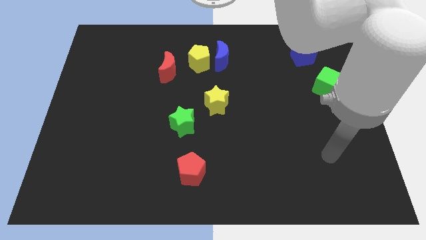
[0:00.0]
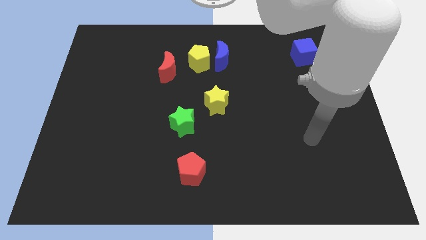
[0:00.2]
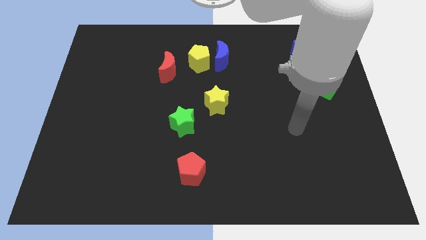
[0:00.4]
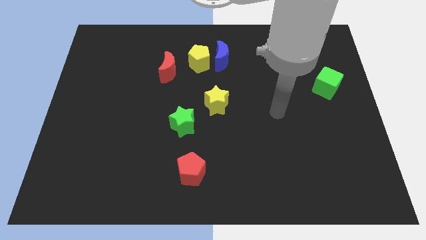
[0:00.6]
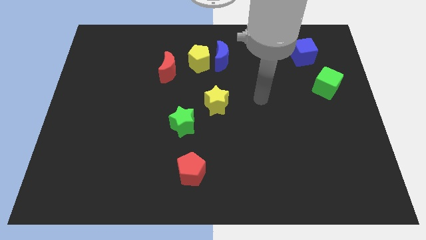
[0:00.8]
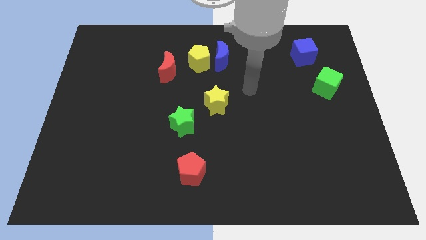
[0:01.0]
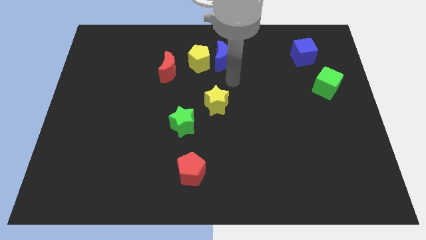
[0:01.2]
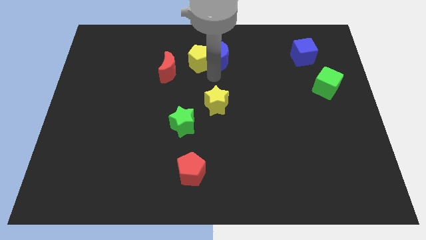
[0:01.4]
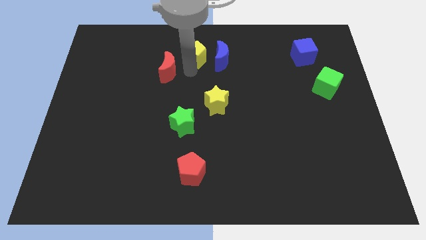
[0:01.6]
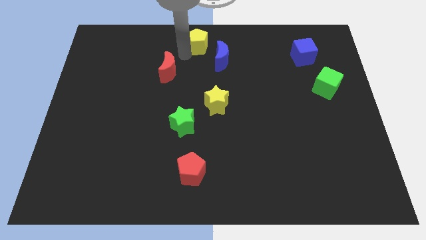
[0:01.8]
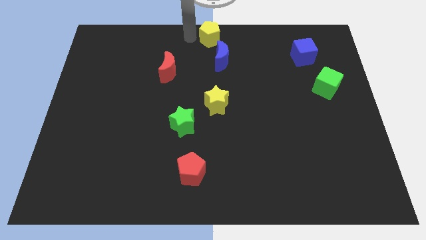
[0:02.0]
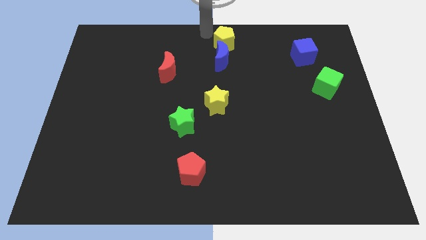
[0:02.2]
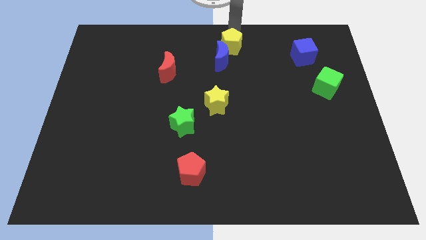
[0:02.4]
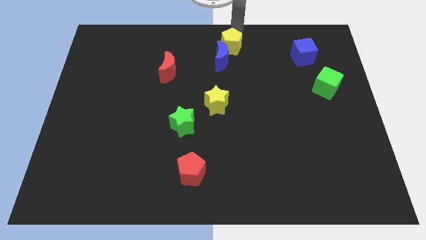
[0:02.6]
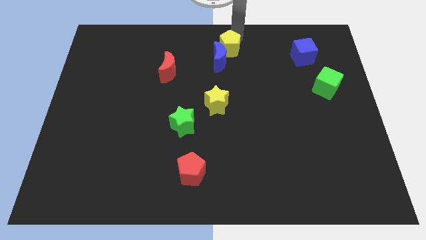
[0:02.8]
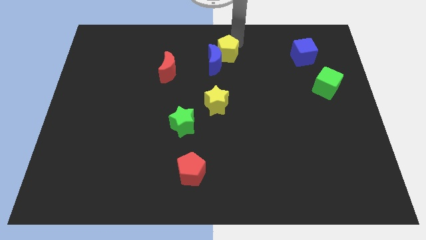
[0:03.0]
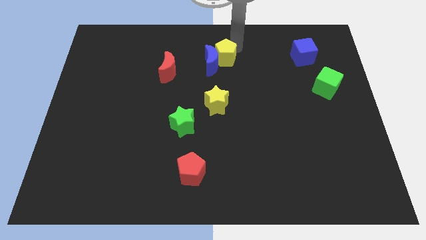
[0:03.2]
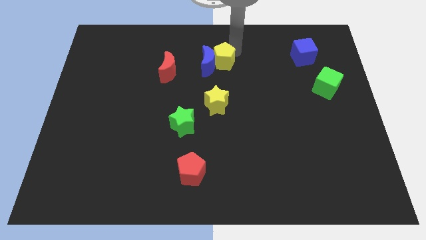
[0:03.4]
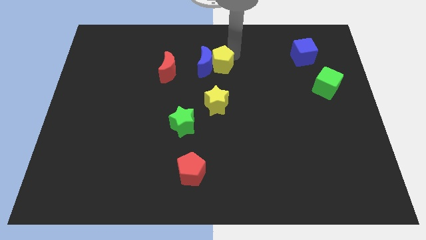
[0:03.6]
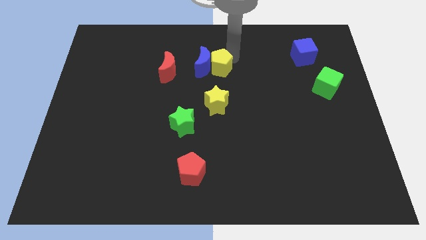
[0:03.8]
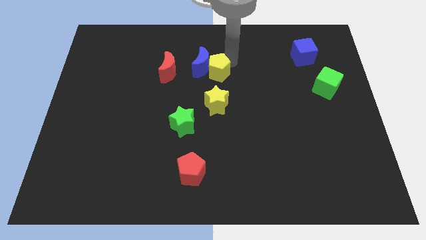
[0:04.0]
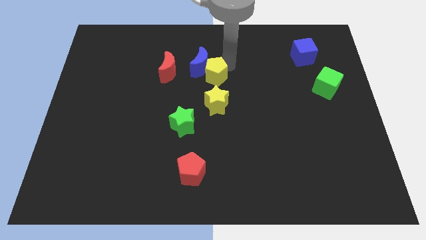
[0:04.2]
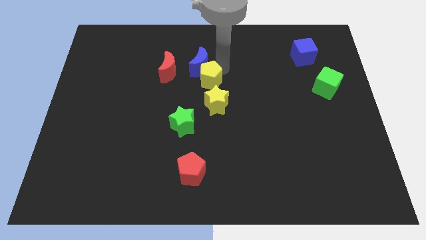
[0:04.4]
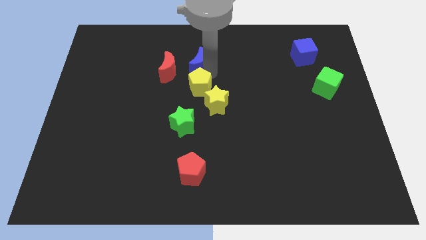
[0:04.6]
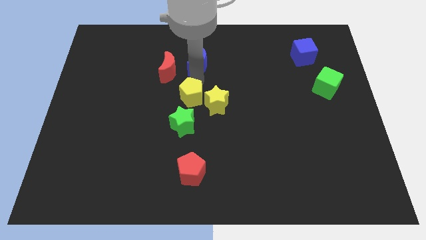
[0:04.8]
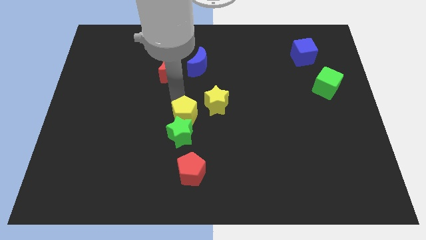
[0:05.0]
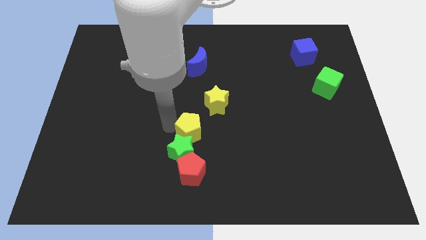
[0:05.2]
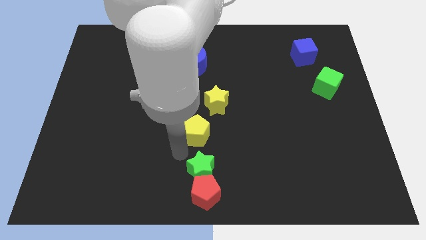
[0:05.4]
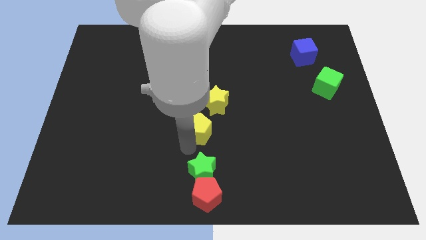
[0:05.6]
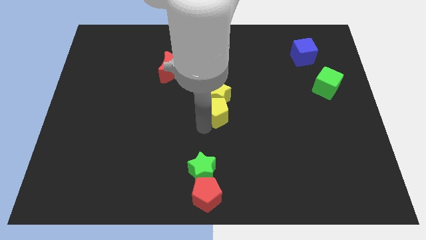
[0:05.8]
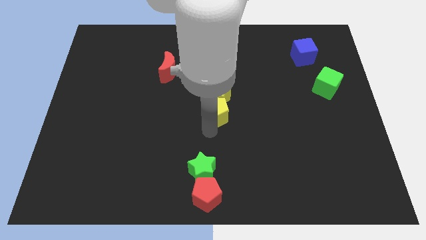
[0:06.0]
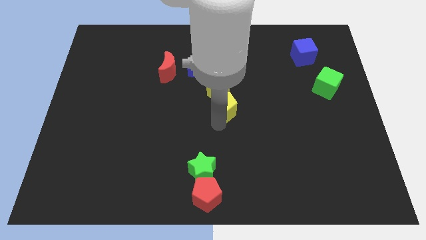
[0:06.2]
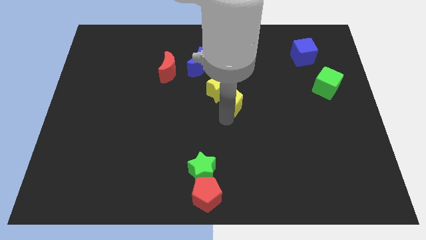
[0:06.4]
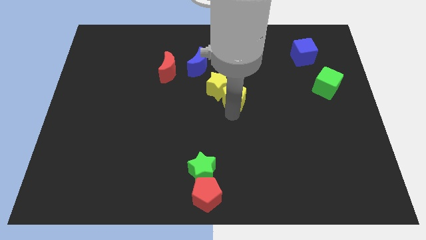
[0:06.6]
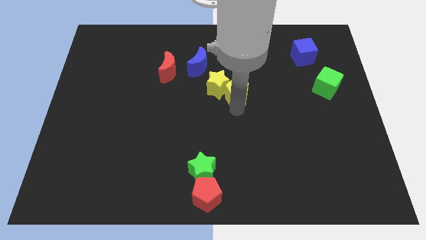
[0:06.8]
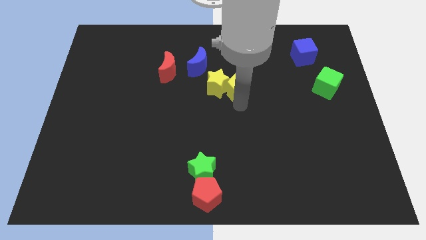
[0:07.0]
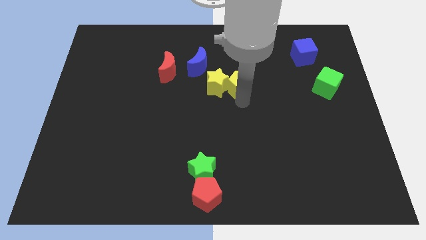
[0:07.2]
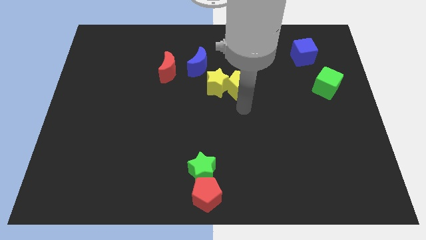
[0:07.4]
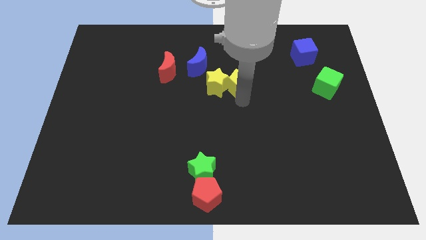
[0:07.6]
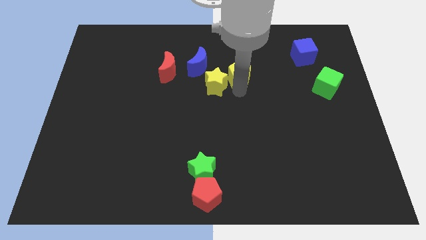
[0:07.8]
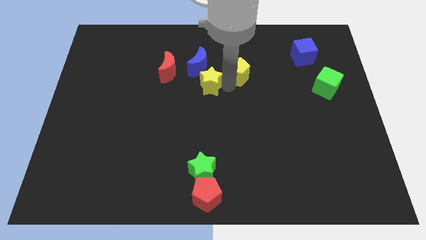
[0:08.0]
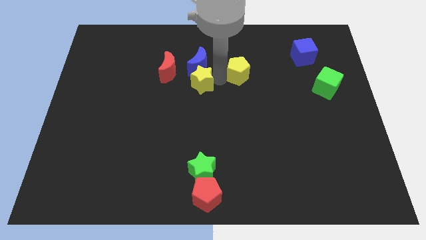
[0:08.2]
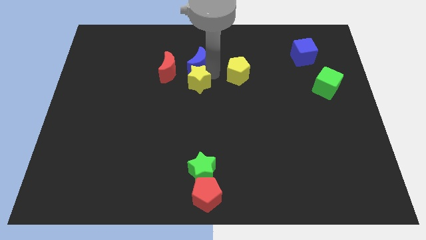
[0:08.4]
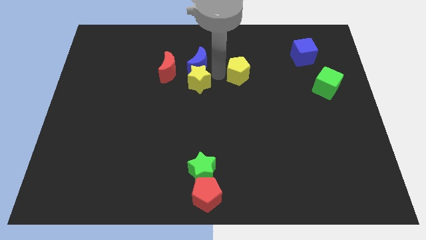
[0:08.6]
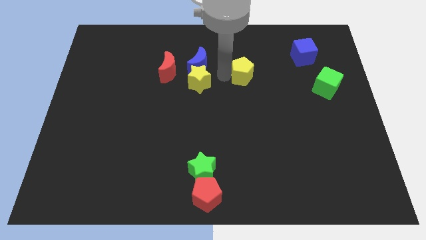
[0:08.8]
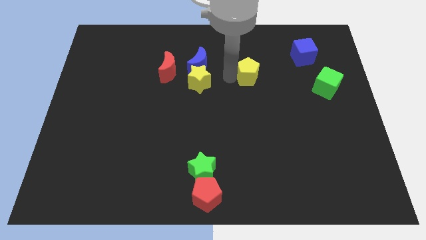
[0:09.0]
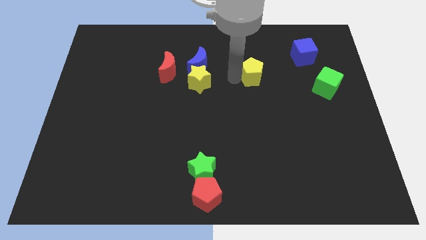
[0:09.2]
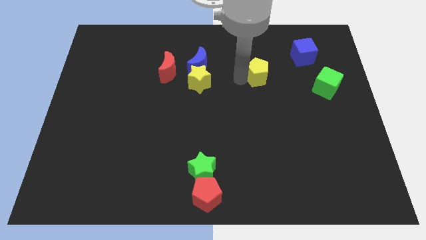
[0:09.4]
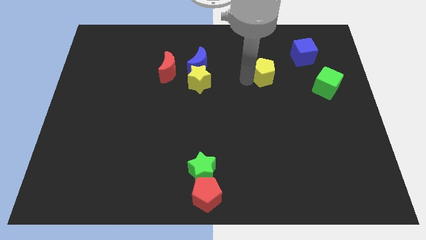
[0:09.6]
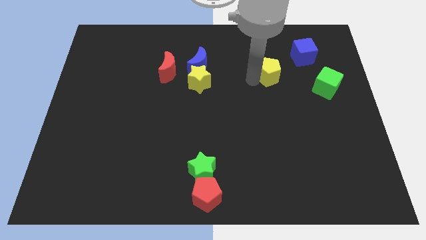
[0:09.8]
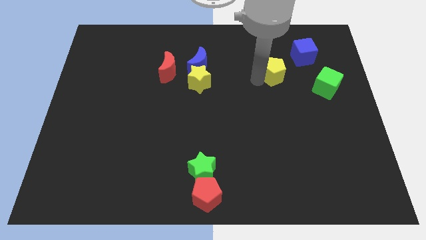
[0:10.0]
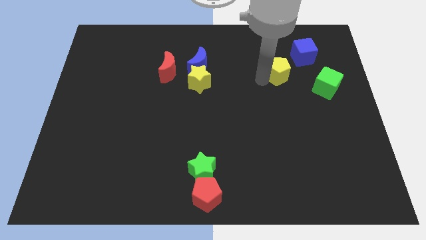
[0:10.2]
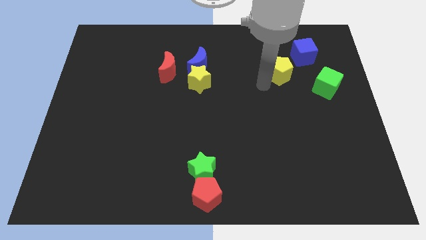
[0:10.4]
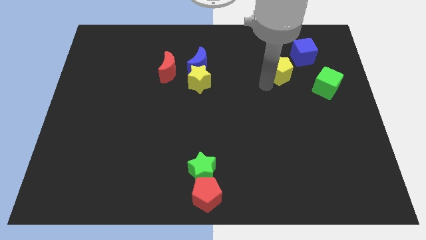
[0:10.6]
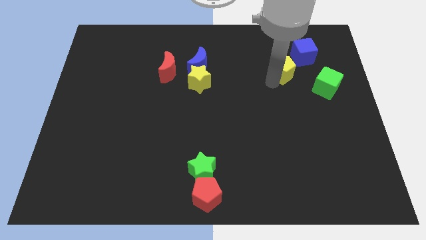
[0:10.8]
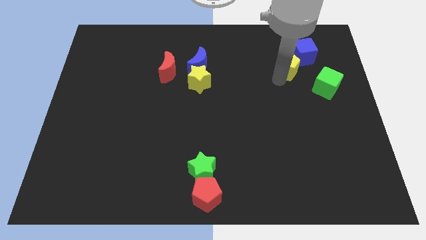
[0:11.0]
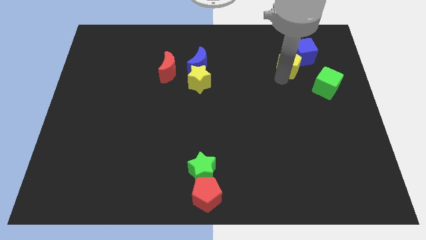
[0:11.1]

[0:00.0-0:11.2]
slide the yellow pentagon close to the blue cube

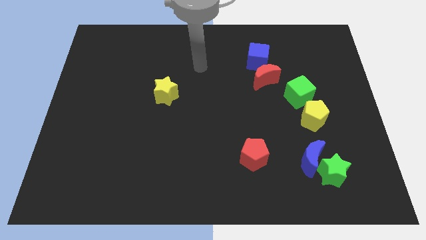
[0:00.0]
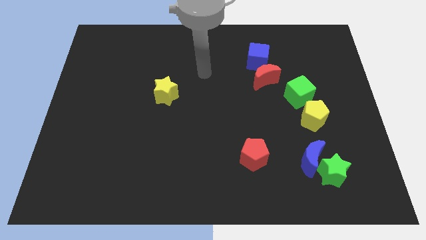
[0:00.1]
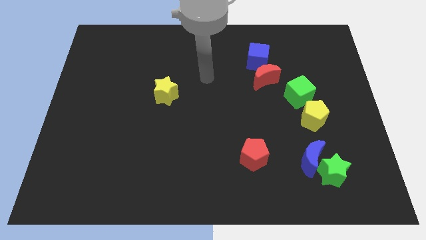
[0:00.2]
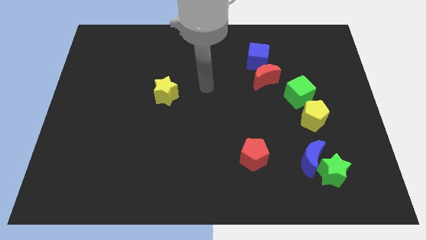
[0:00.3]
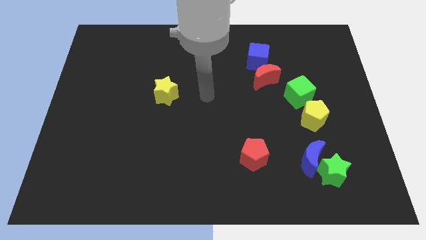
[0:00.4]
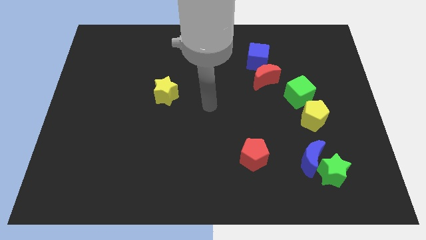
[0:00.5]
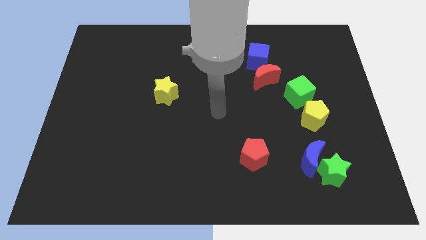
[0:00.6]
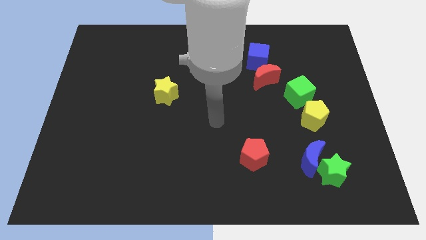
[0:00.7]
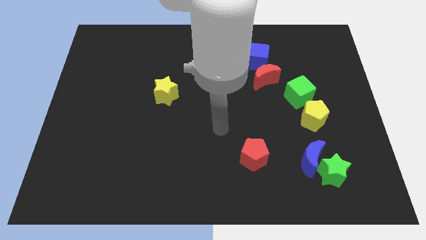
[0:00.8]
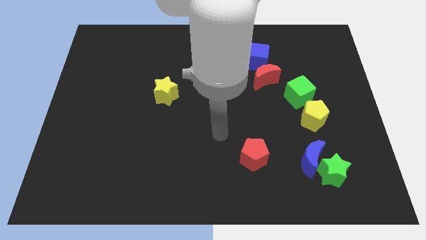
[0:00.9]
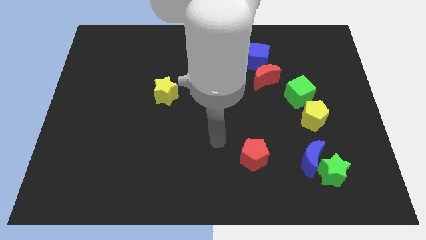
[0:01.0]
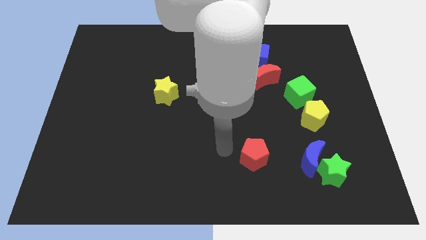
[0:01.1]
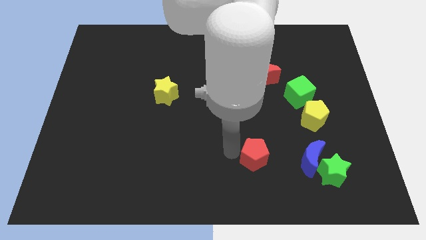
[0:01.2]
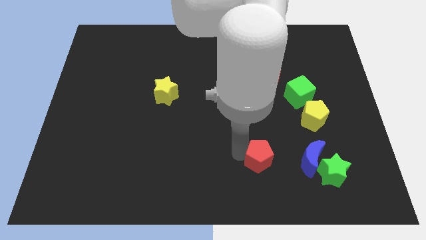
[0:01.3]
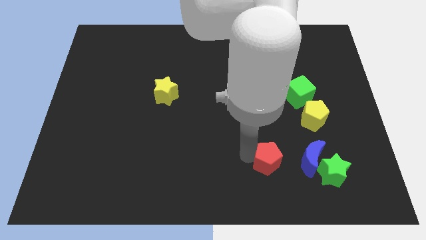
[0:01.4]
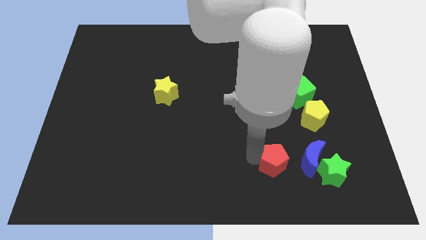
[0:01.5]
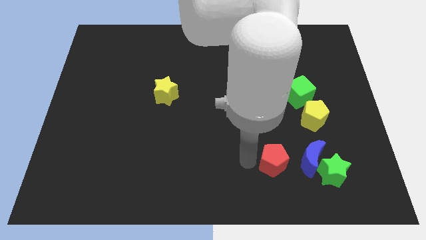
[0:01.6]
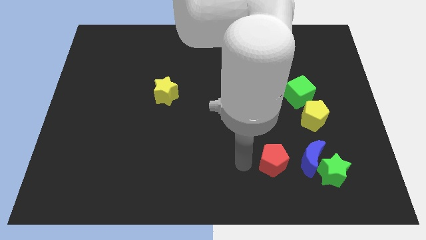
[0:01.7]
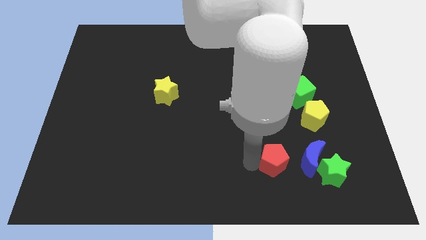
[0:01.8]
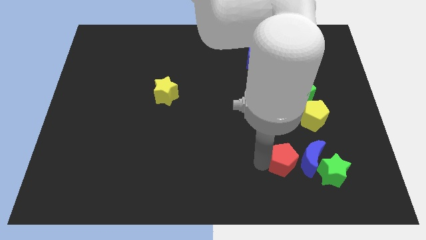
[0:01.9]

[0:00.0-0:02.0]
move the red pentagon to the blue moon
